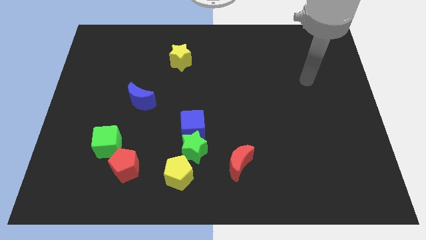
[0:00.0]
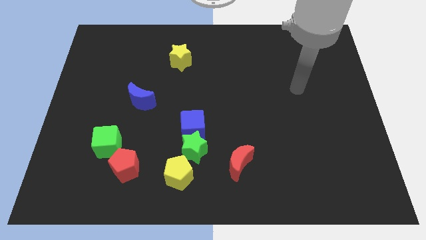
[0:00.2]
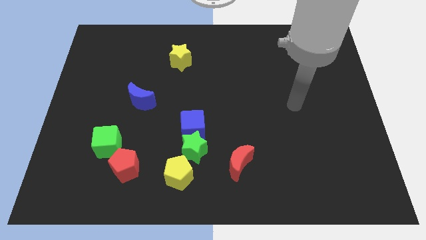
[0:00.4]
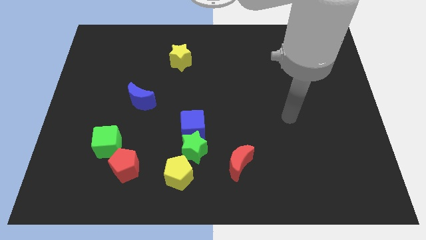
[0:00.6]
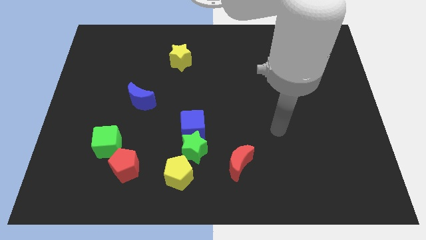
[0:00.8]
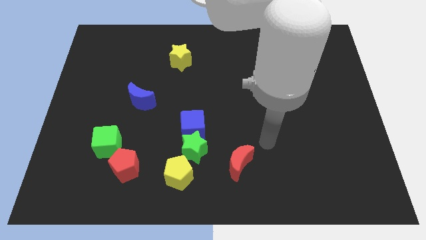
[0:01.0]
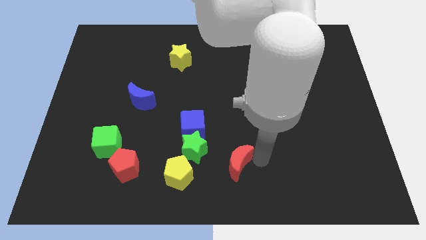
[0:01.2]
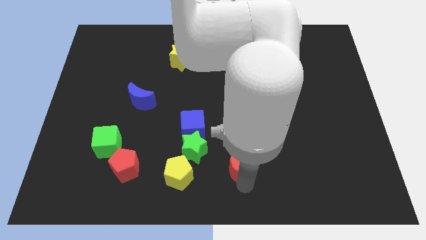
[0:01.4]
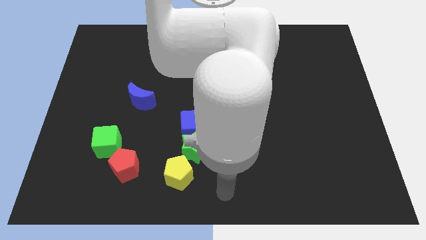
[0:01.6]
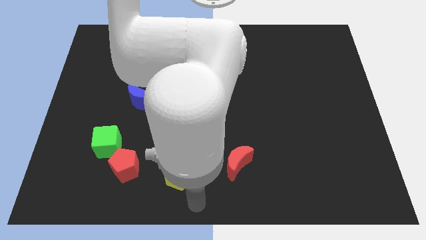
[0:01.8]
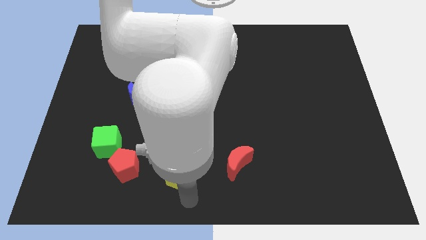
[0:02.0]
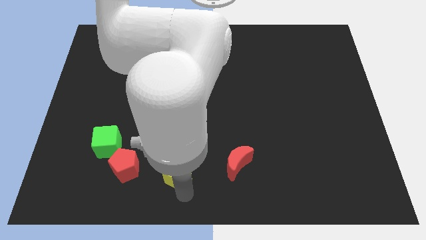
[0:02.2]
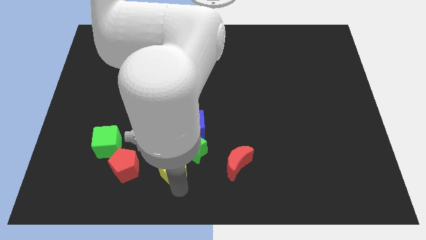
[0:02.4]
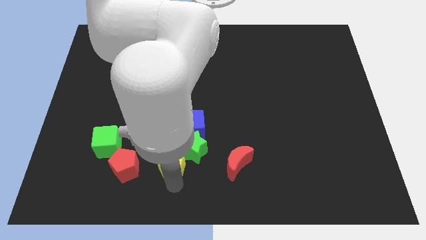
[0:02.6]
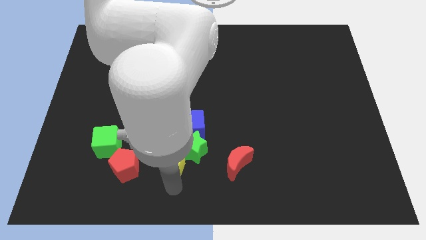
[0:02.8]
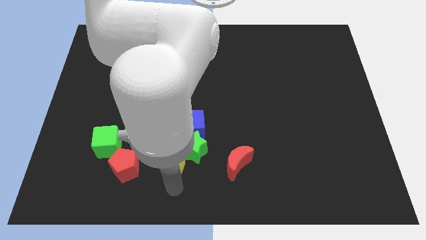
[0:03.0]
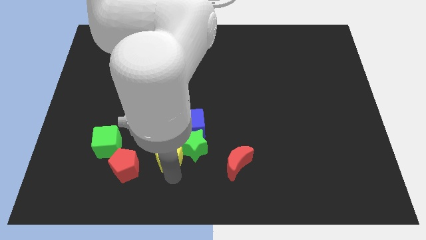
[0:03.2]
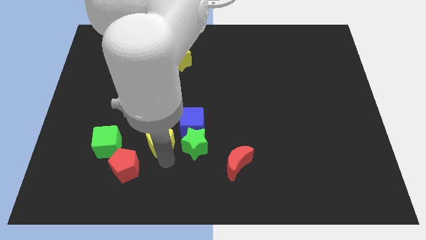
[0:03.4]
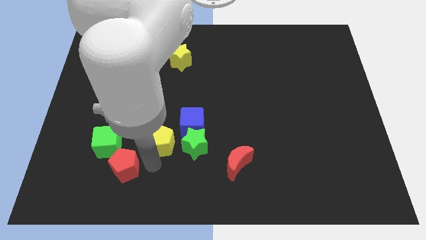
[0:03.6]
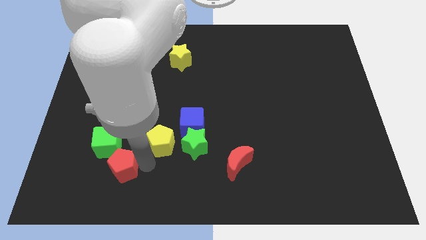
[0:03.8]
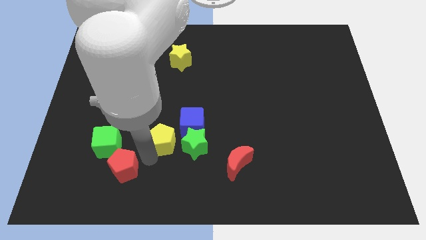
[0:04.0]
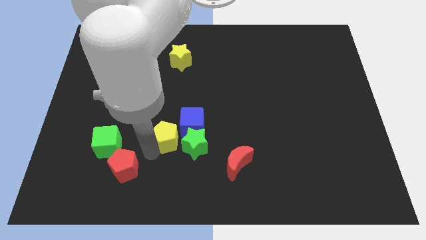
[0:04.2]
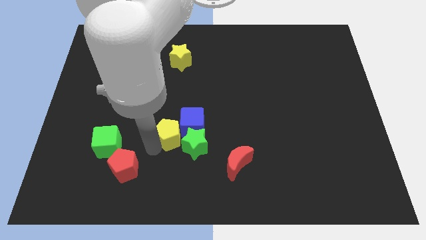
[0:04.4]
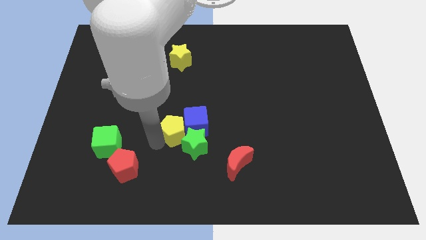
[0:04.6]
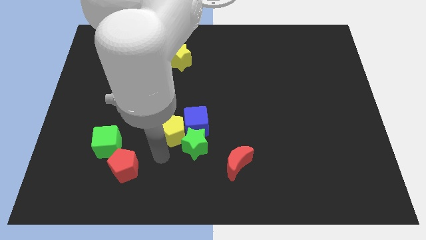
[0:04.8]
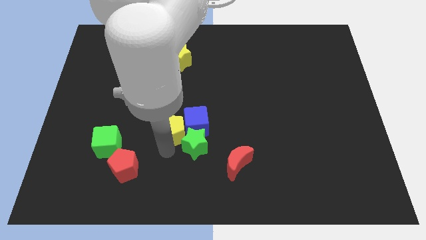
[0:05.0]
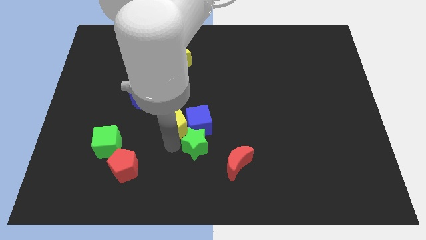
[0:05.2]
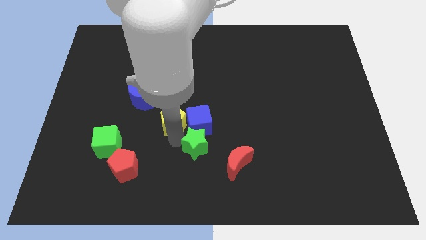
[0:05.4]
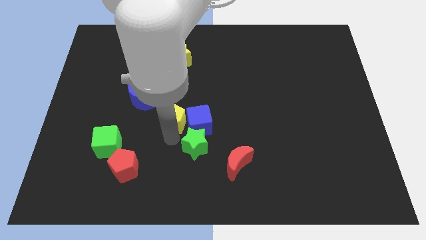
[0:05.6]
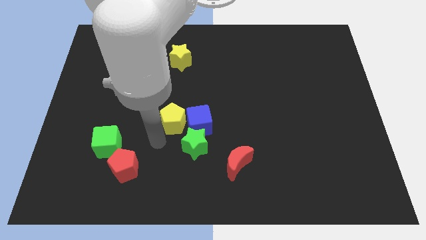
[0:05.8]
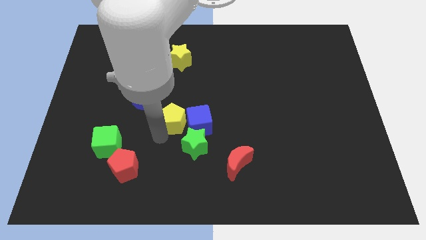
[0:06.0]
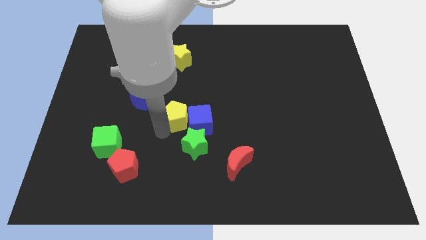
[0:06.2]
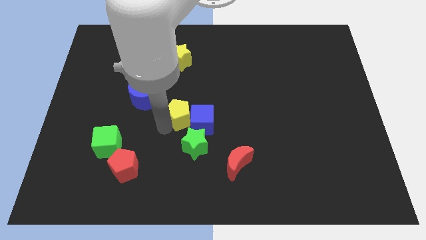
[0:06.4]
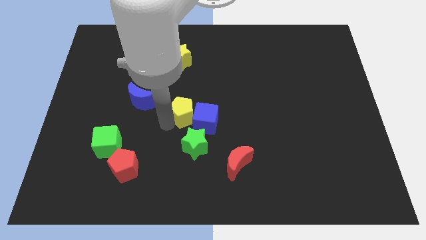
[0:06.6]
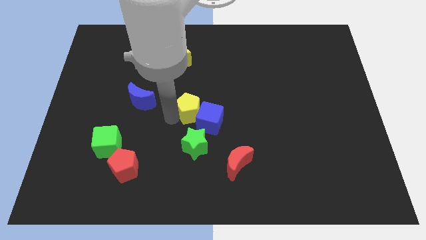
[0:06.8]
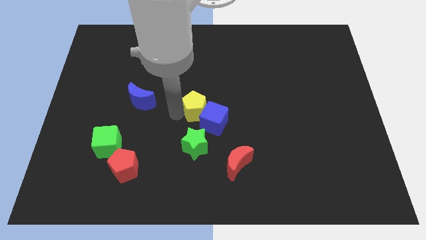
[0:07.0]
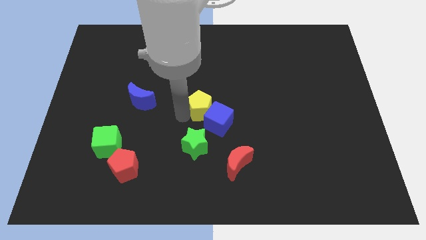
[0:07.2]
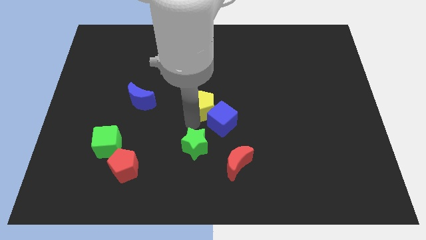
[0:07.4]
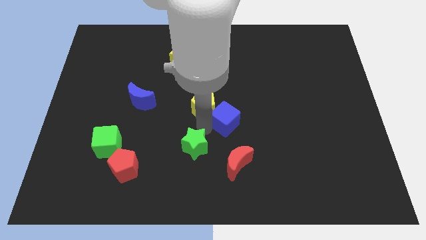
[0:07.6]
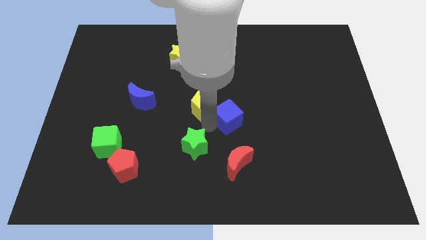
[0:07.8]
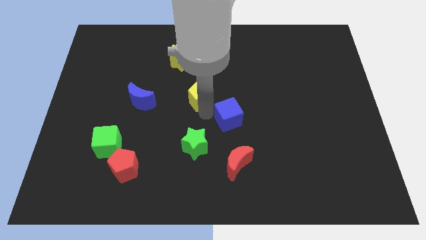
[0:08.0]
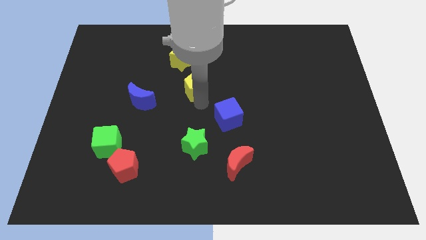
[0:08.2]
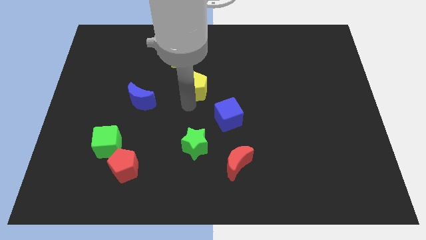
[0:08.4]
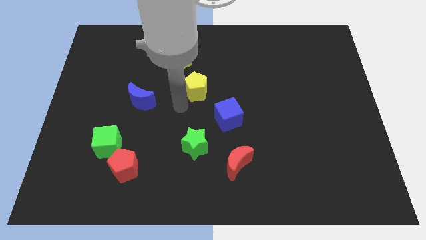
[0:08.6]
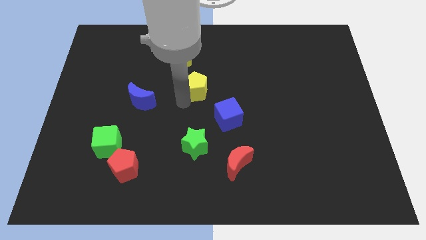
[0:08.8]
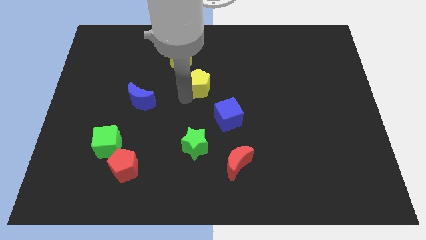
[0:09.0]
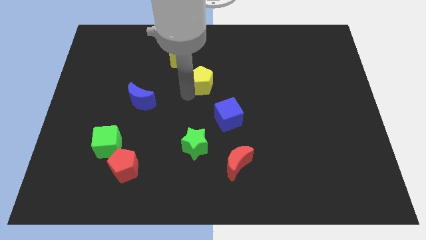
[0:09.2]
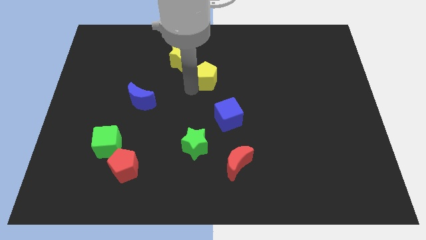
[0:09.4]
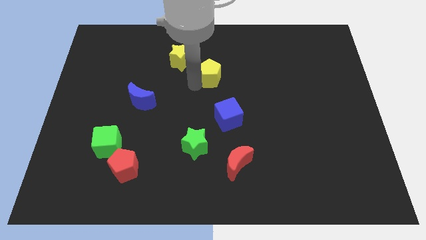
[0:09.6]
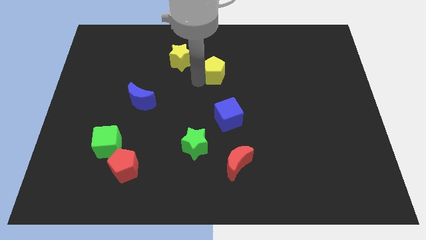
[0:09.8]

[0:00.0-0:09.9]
slide the yellow pentagon to the right side of the yellow star

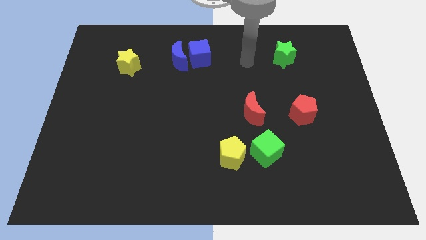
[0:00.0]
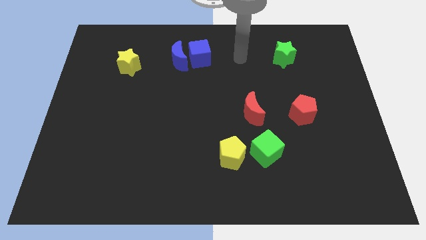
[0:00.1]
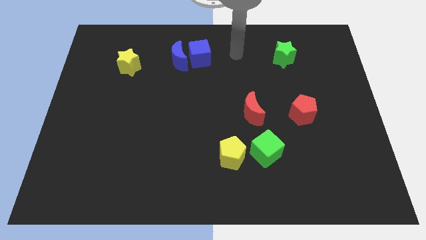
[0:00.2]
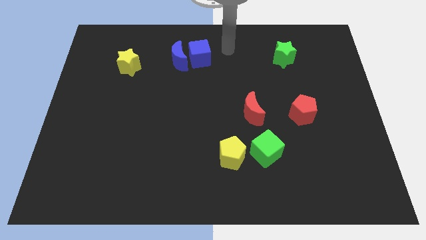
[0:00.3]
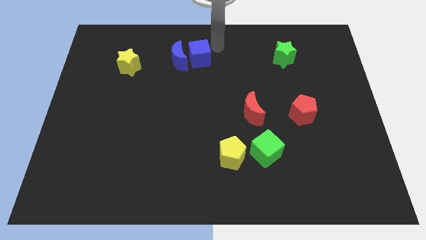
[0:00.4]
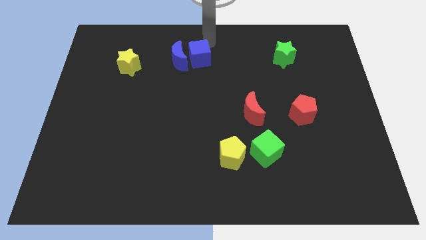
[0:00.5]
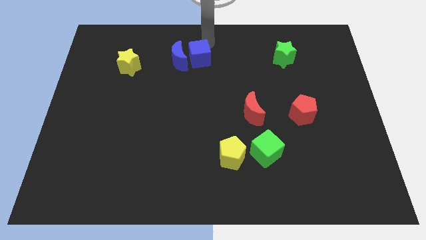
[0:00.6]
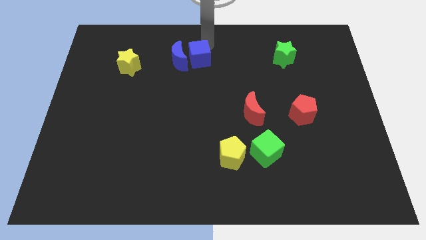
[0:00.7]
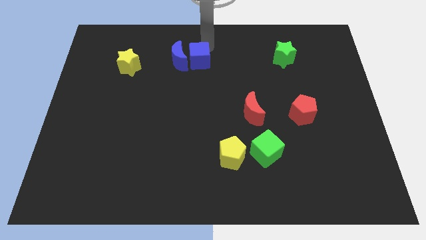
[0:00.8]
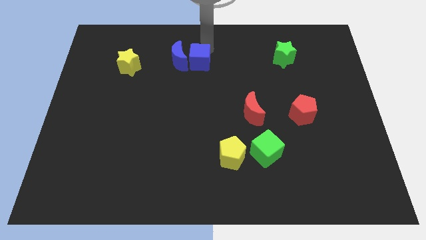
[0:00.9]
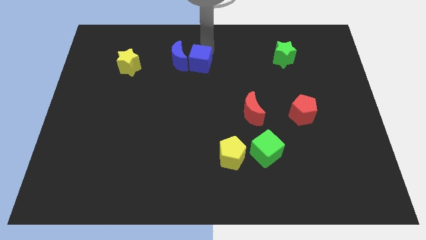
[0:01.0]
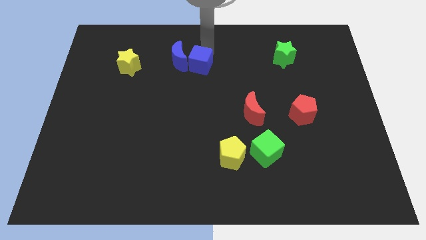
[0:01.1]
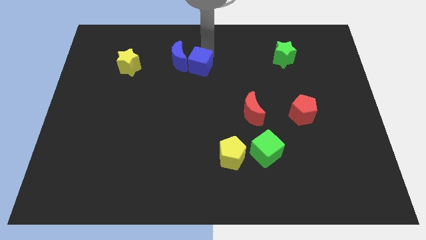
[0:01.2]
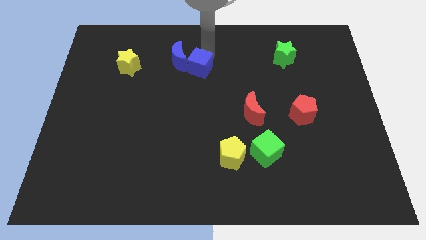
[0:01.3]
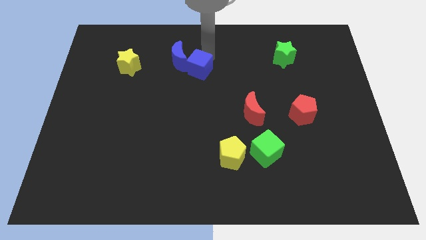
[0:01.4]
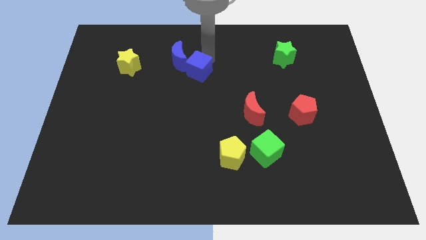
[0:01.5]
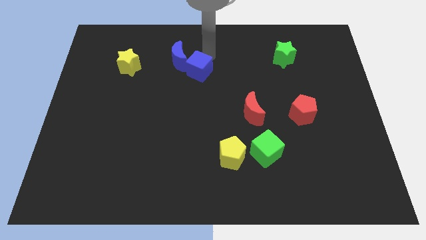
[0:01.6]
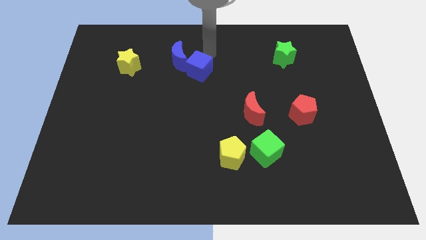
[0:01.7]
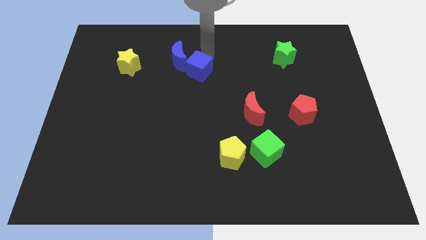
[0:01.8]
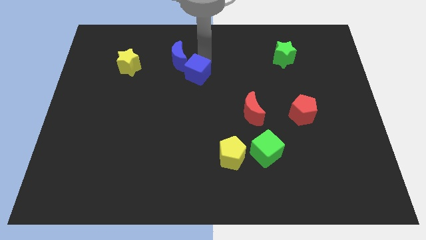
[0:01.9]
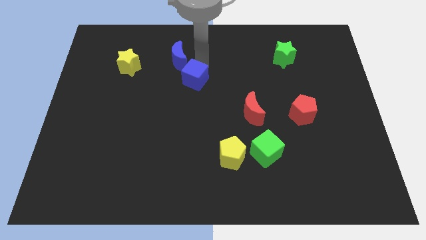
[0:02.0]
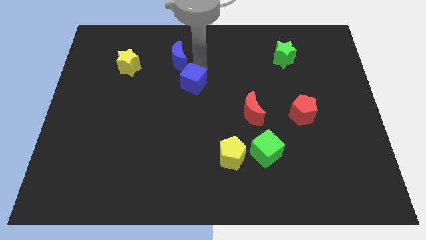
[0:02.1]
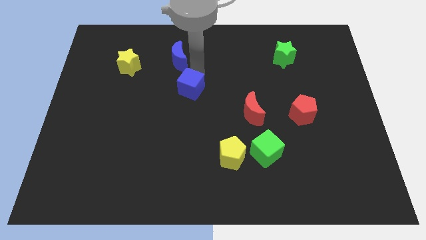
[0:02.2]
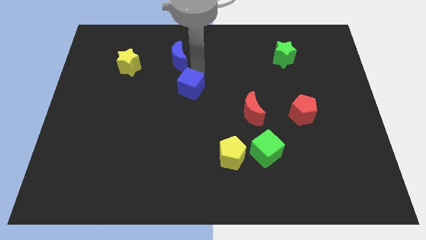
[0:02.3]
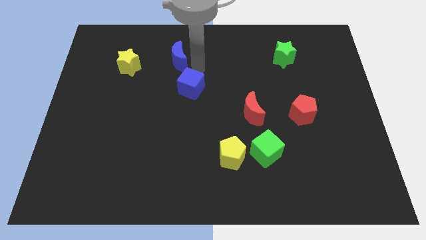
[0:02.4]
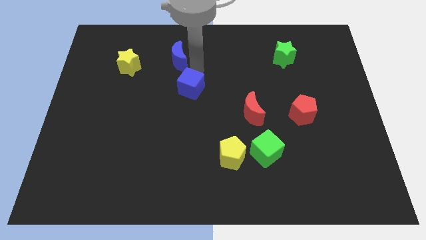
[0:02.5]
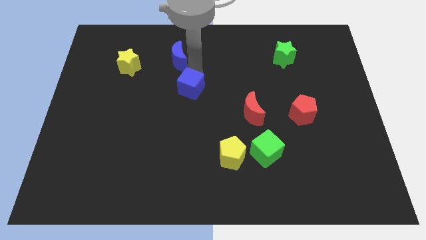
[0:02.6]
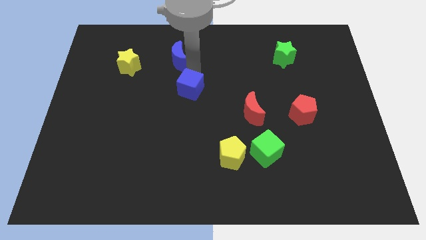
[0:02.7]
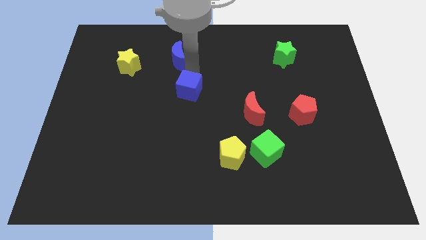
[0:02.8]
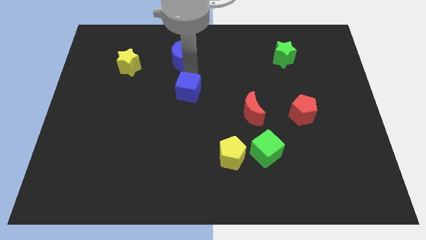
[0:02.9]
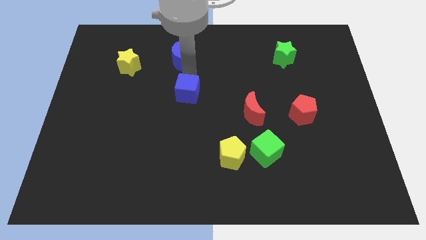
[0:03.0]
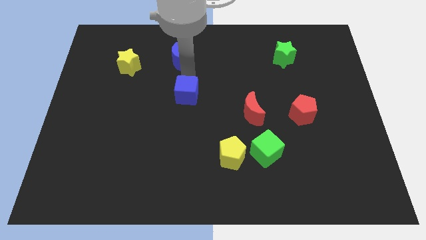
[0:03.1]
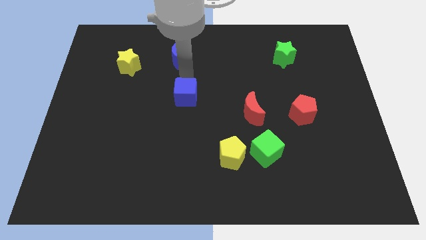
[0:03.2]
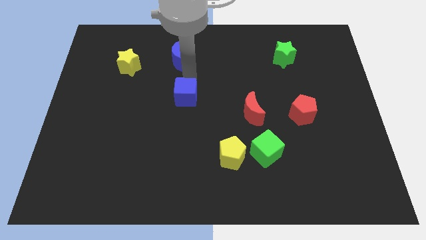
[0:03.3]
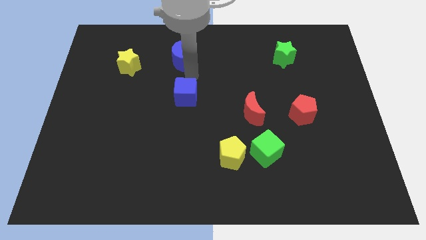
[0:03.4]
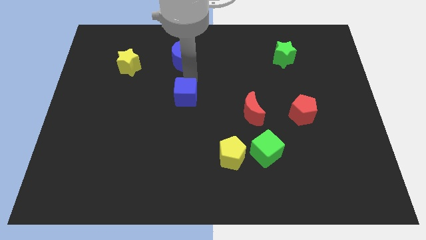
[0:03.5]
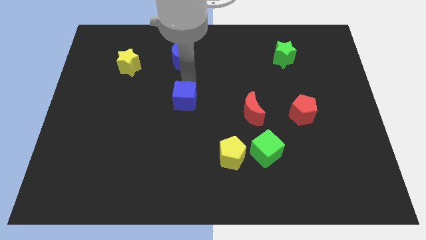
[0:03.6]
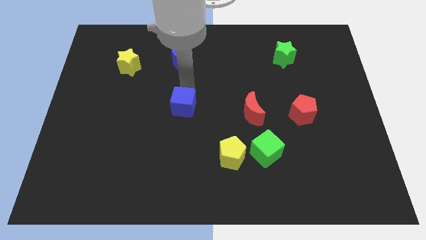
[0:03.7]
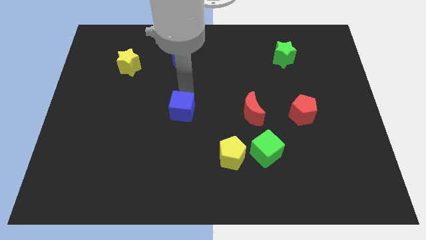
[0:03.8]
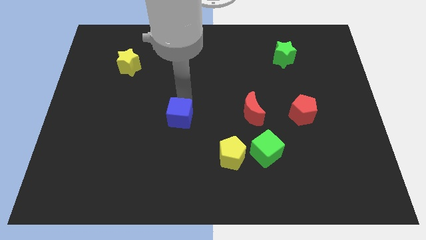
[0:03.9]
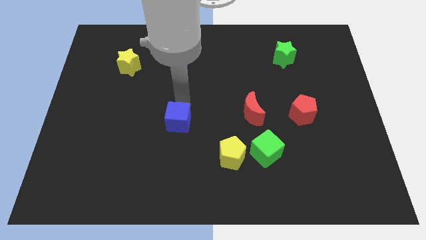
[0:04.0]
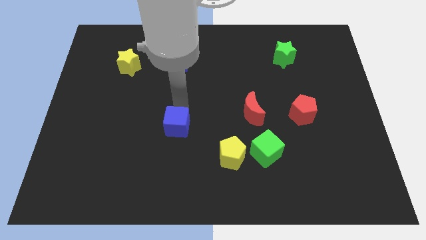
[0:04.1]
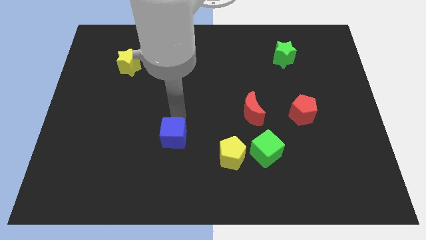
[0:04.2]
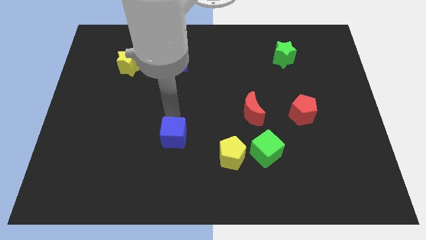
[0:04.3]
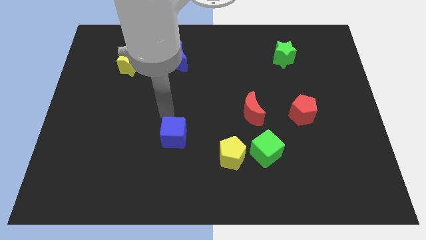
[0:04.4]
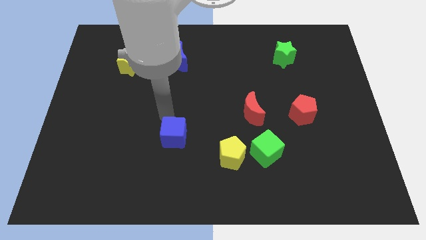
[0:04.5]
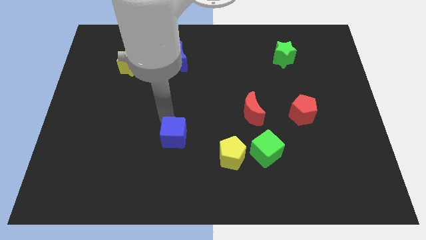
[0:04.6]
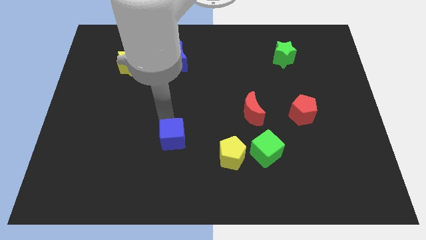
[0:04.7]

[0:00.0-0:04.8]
slide the blue cube left of the yellow pentagon
